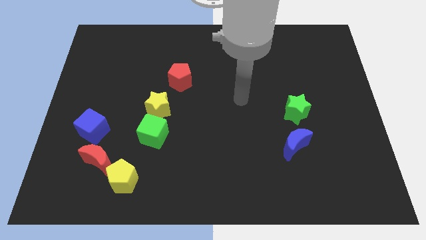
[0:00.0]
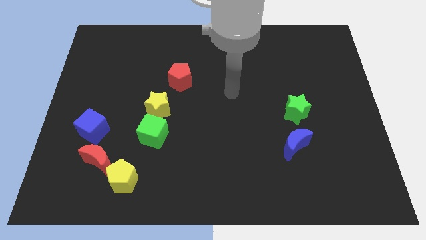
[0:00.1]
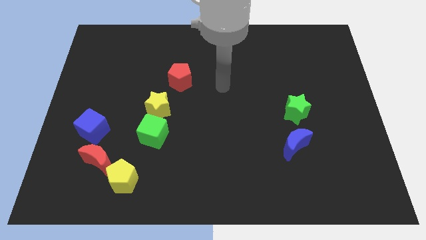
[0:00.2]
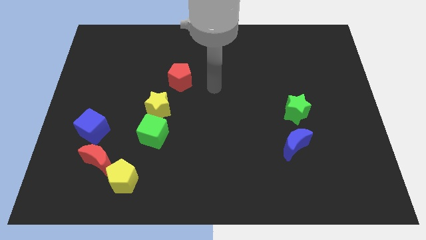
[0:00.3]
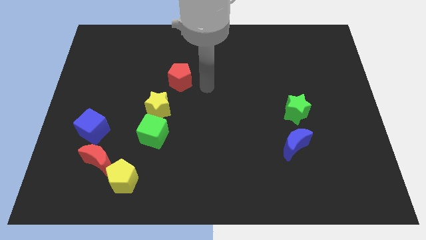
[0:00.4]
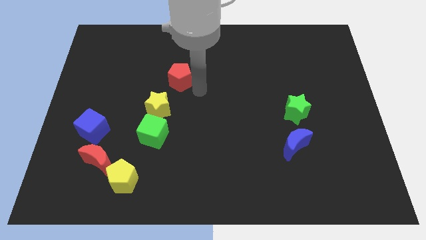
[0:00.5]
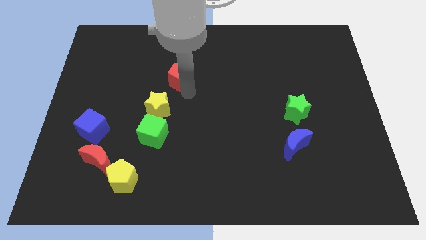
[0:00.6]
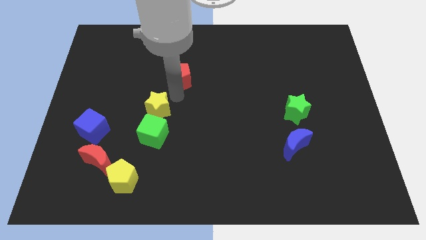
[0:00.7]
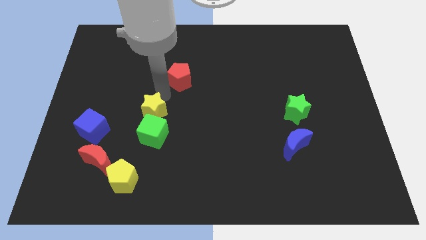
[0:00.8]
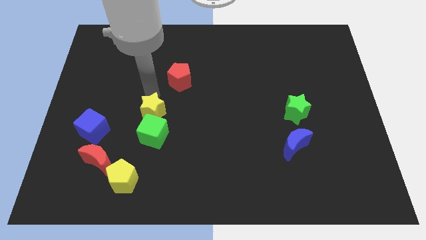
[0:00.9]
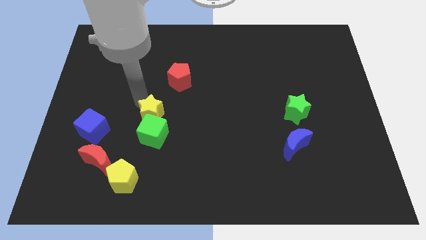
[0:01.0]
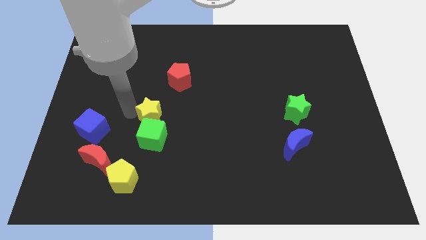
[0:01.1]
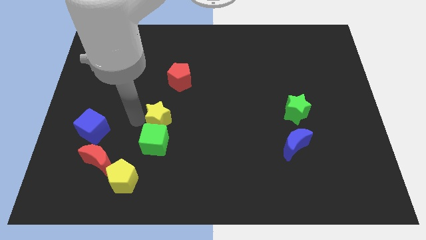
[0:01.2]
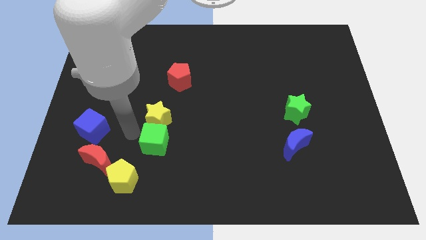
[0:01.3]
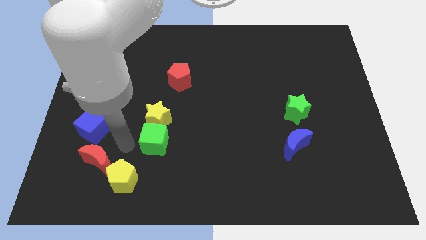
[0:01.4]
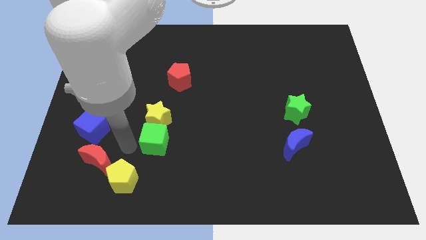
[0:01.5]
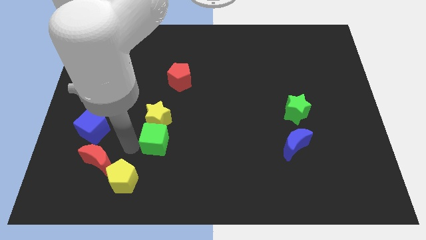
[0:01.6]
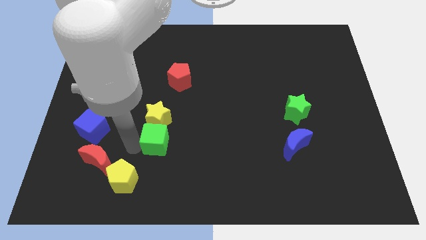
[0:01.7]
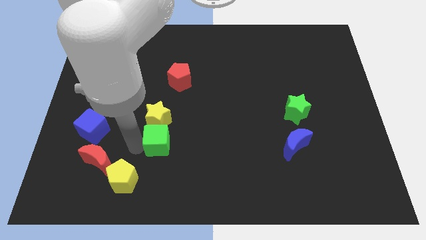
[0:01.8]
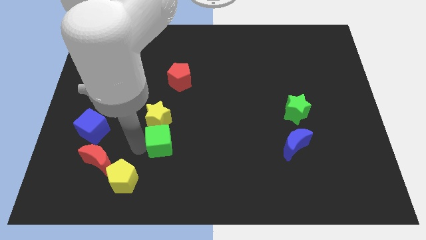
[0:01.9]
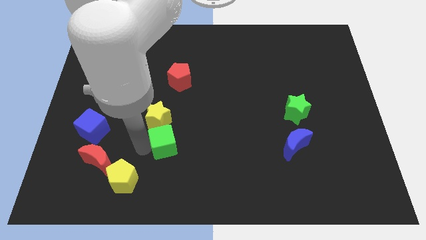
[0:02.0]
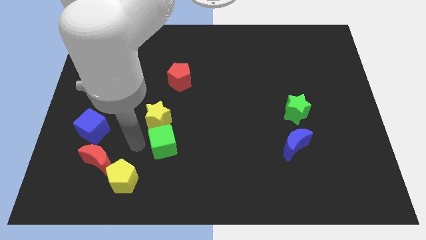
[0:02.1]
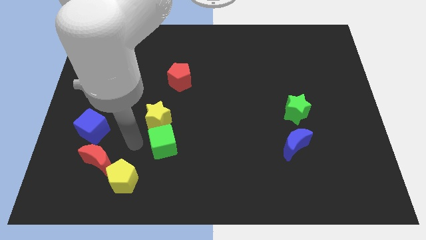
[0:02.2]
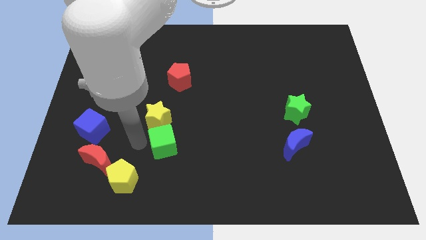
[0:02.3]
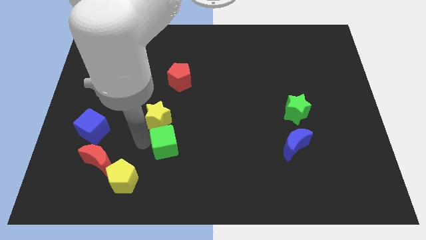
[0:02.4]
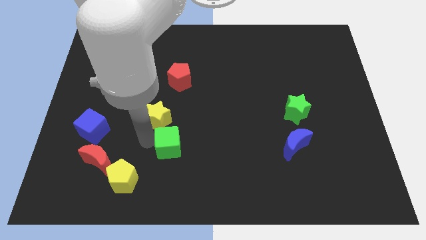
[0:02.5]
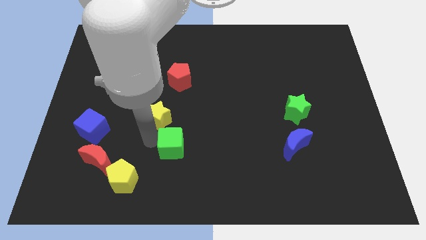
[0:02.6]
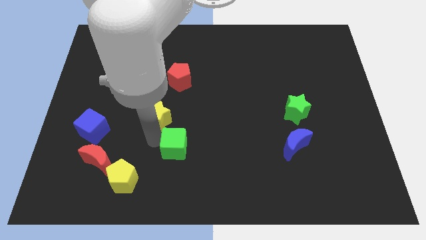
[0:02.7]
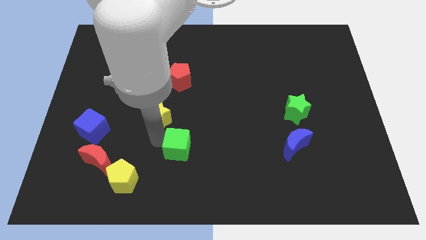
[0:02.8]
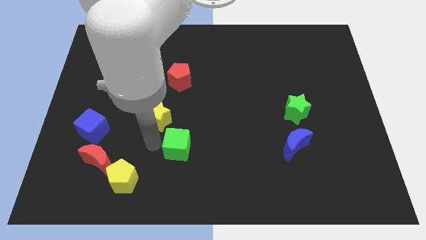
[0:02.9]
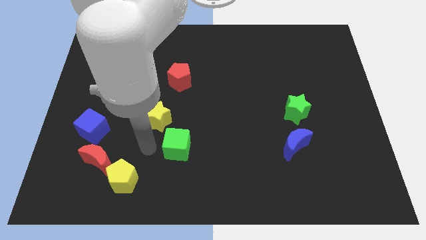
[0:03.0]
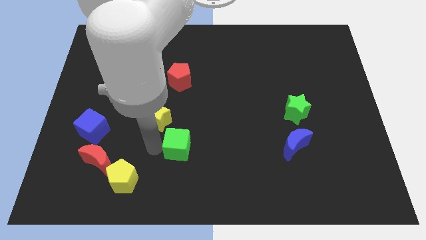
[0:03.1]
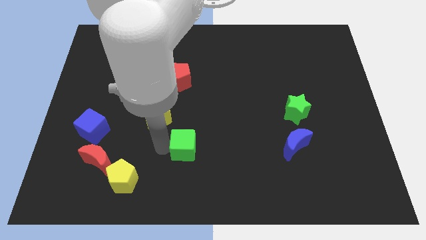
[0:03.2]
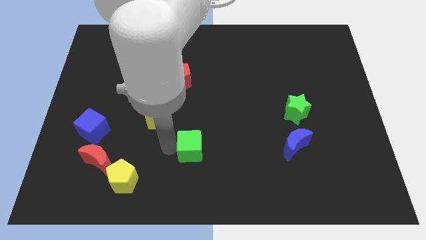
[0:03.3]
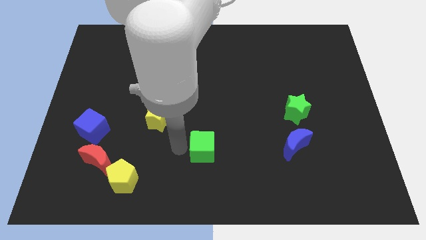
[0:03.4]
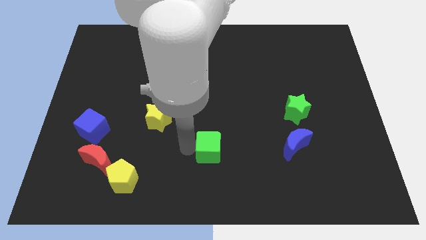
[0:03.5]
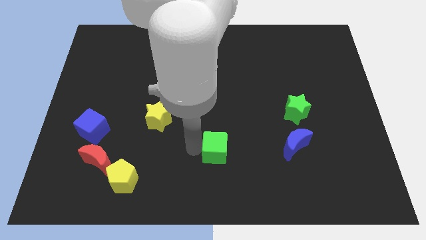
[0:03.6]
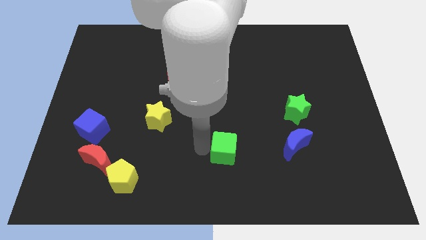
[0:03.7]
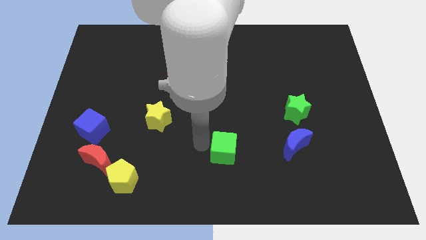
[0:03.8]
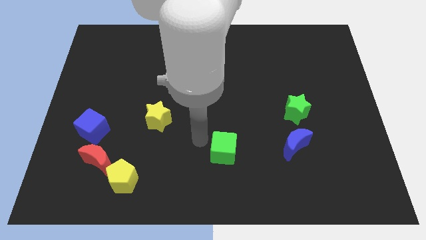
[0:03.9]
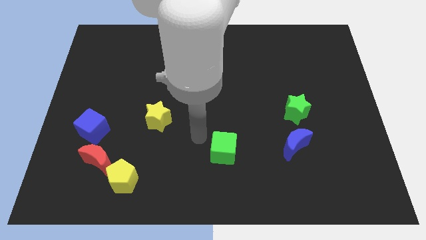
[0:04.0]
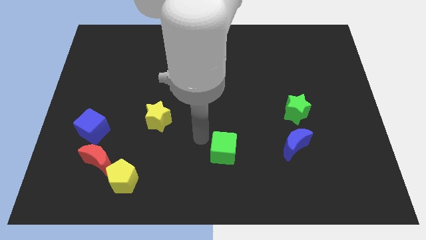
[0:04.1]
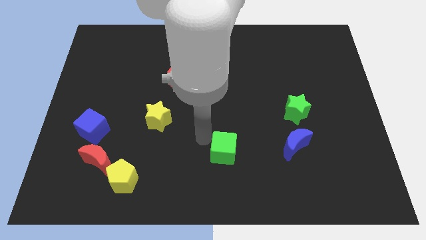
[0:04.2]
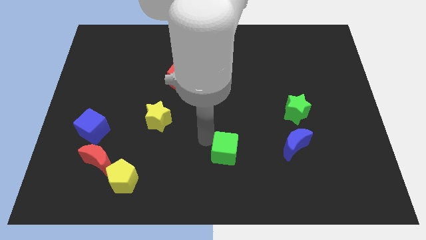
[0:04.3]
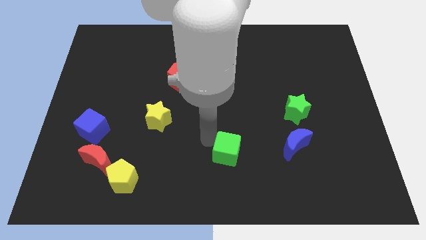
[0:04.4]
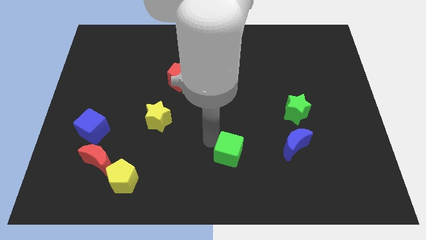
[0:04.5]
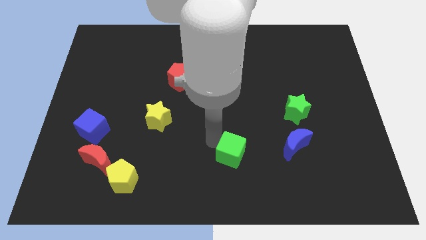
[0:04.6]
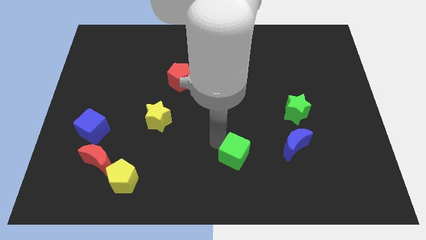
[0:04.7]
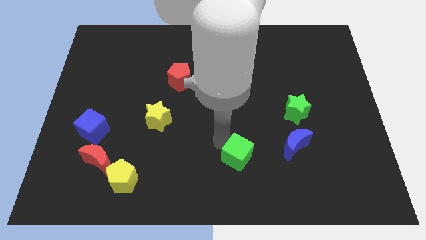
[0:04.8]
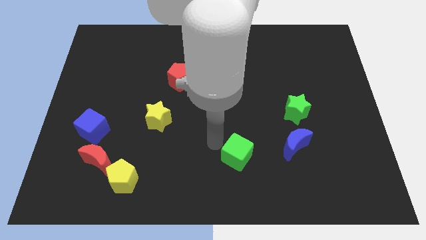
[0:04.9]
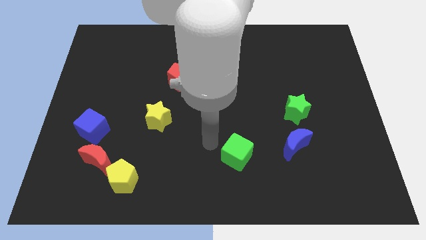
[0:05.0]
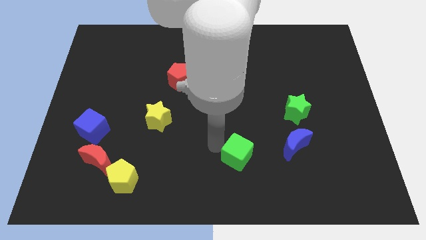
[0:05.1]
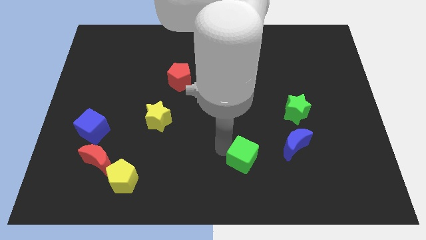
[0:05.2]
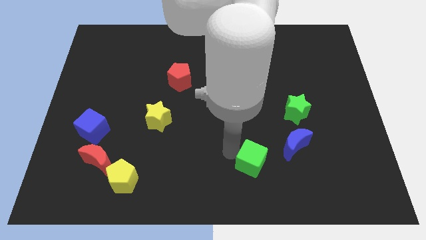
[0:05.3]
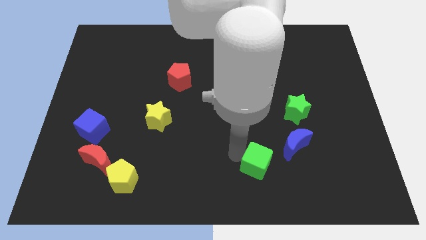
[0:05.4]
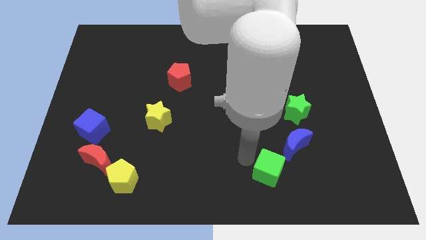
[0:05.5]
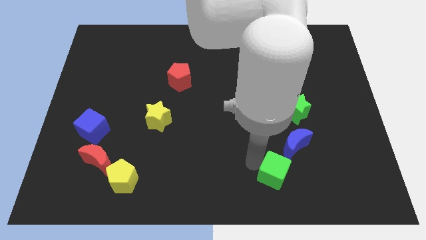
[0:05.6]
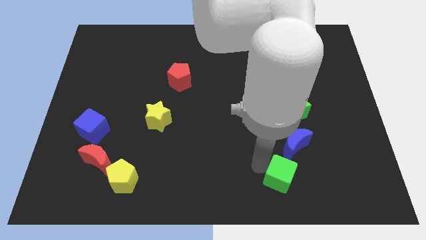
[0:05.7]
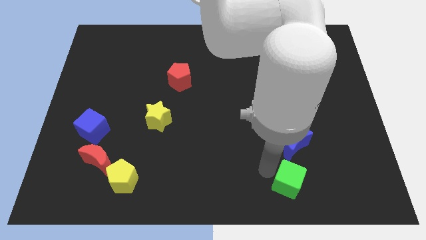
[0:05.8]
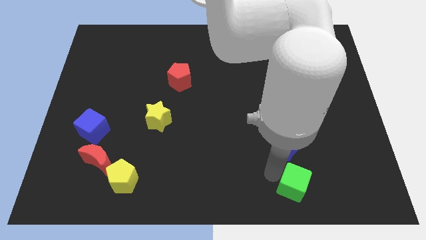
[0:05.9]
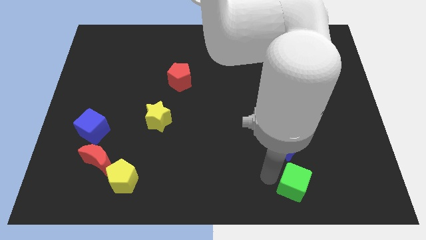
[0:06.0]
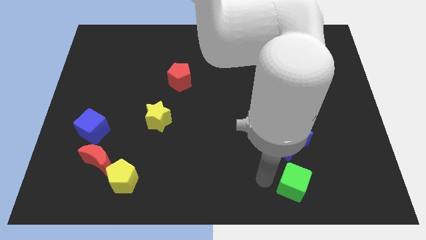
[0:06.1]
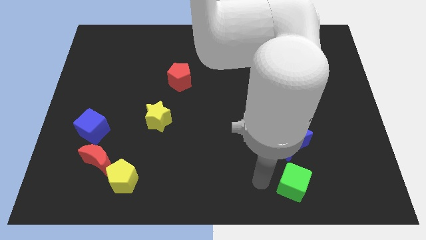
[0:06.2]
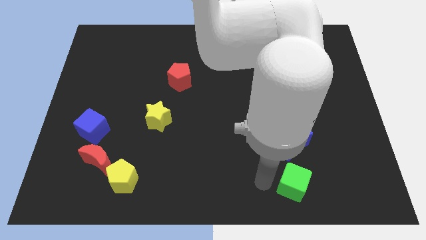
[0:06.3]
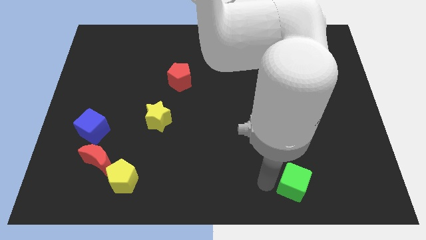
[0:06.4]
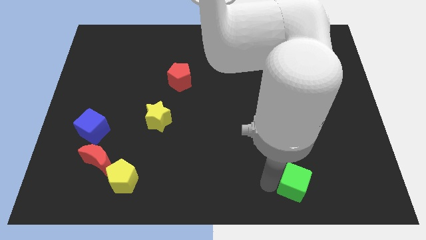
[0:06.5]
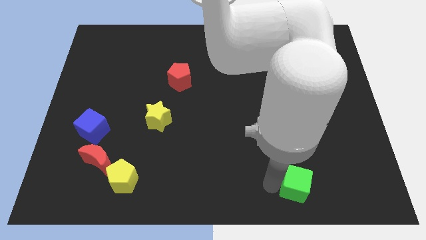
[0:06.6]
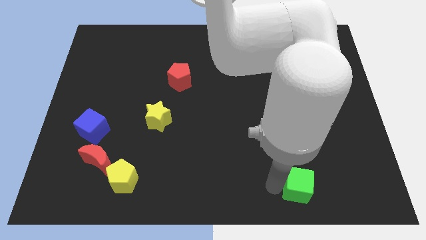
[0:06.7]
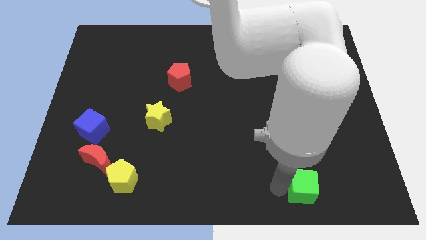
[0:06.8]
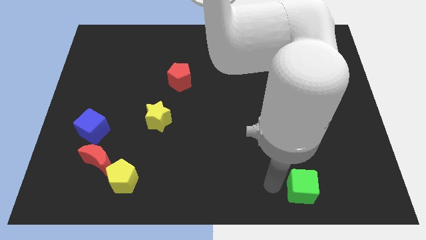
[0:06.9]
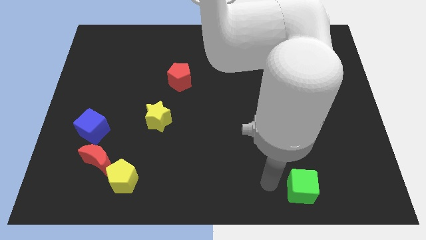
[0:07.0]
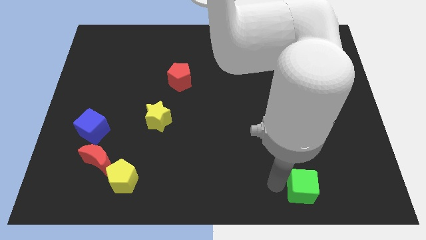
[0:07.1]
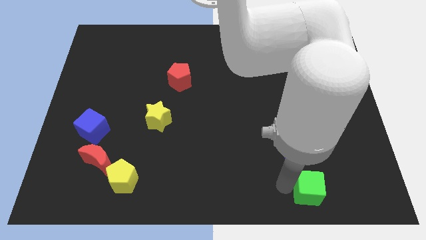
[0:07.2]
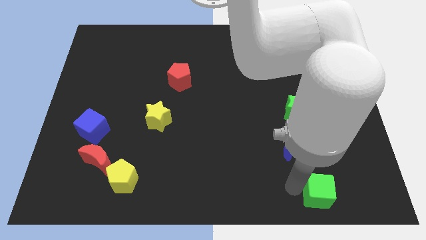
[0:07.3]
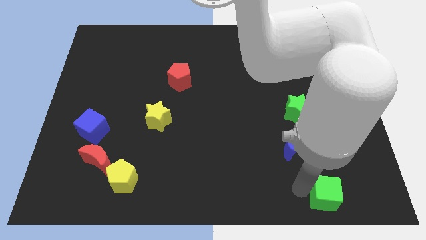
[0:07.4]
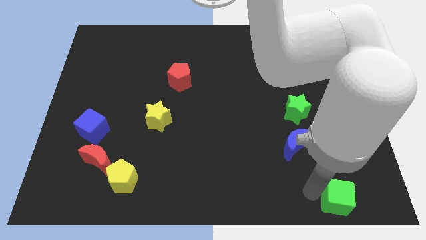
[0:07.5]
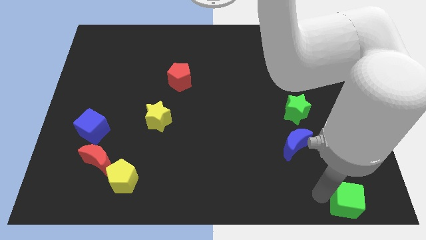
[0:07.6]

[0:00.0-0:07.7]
move the green cube to the lower right corner
